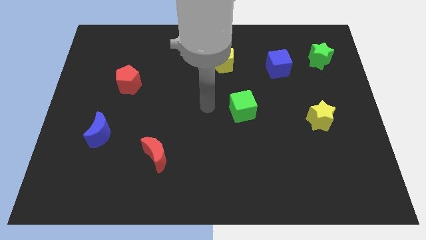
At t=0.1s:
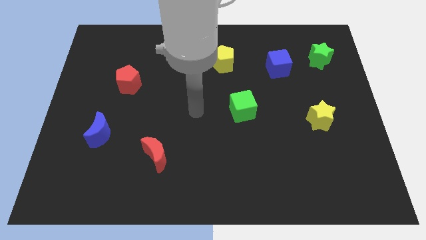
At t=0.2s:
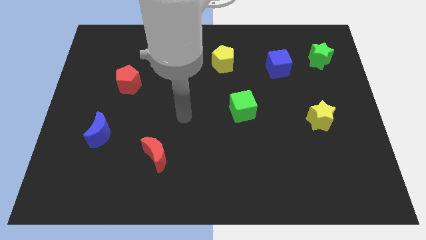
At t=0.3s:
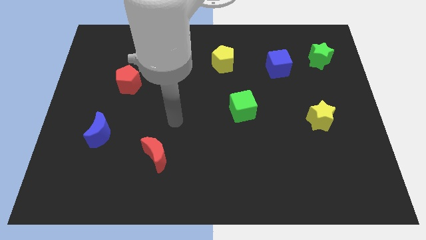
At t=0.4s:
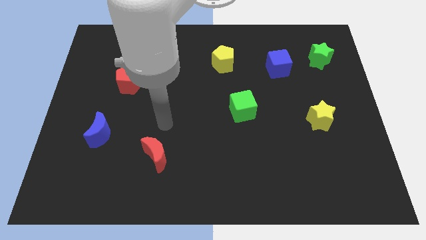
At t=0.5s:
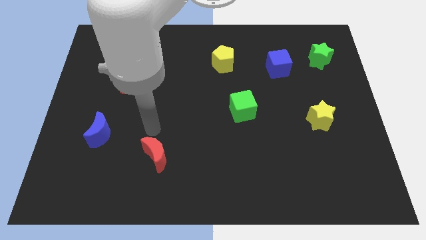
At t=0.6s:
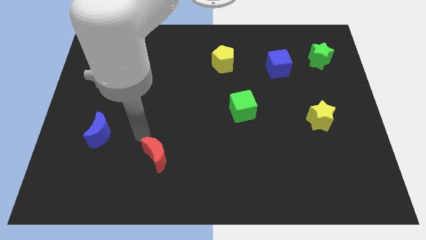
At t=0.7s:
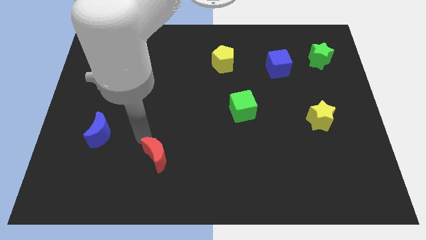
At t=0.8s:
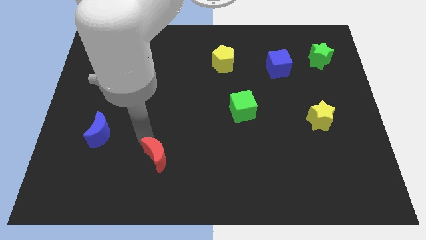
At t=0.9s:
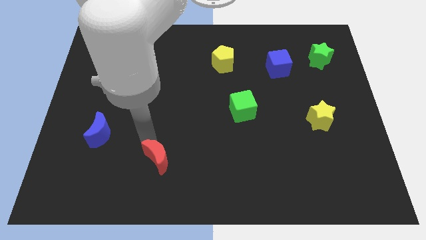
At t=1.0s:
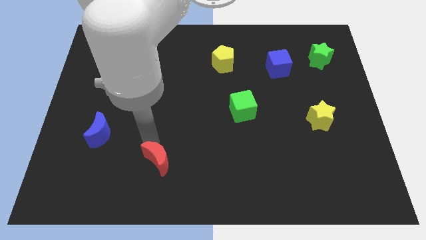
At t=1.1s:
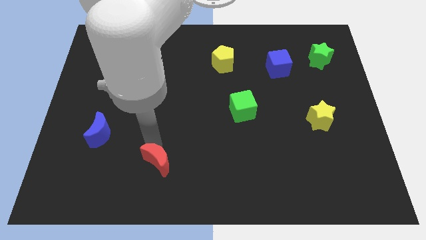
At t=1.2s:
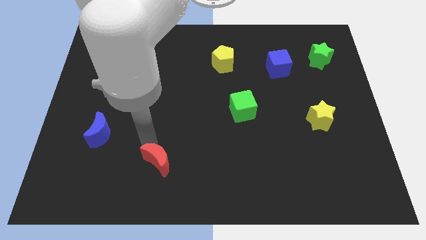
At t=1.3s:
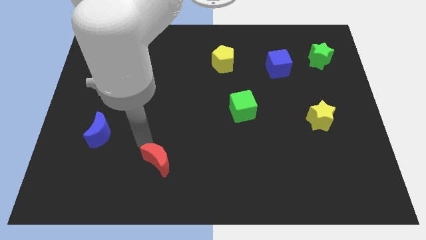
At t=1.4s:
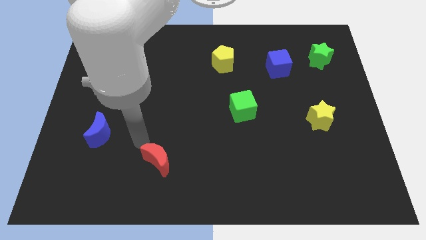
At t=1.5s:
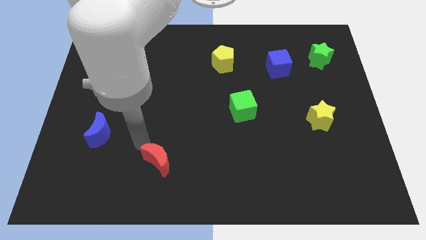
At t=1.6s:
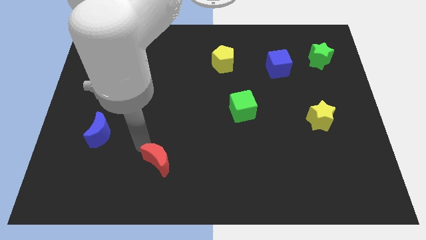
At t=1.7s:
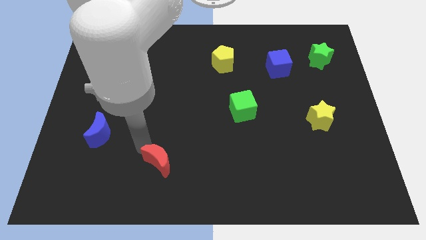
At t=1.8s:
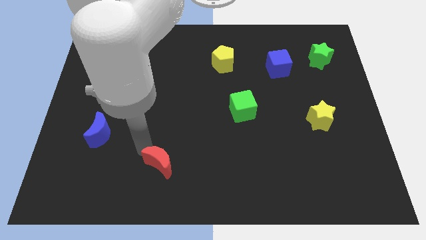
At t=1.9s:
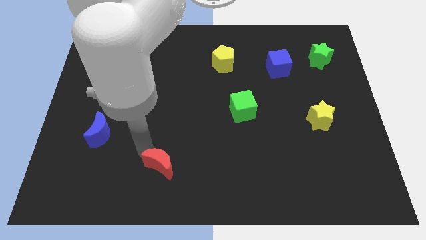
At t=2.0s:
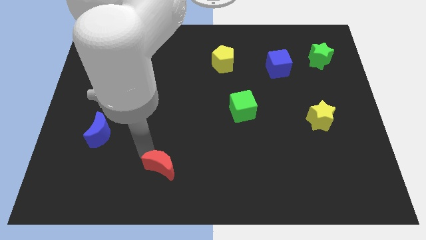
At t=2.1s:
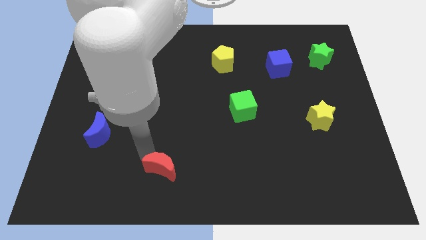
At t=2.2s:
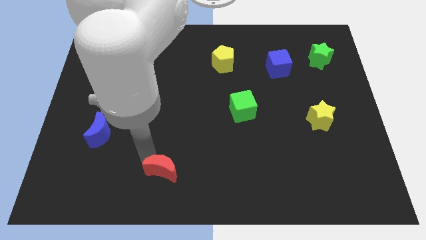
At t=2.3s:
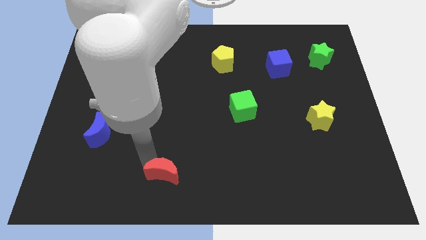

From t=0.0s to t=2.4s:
put the red moon to the bottom

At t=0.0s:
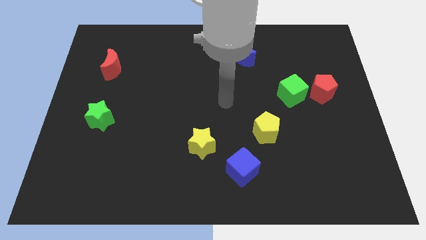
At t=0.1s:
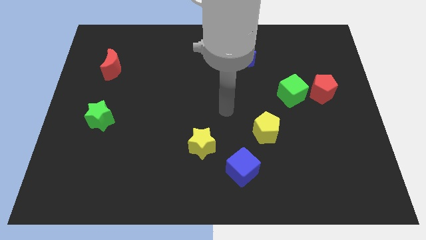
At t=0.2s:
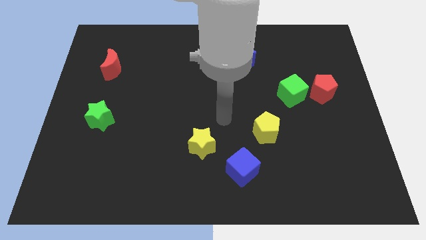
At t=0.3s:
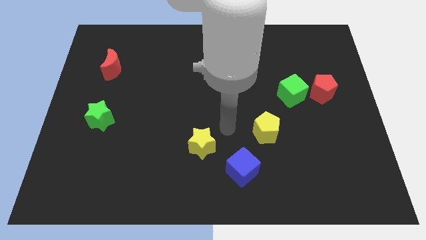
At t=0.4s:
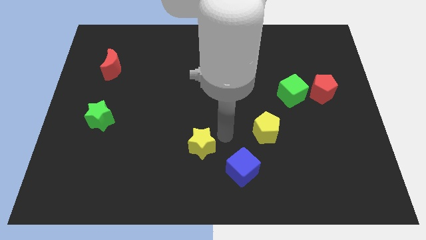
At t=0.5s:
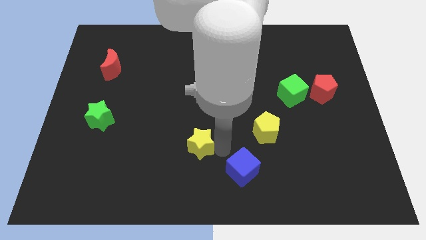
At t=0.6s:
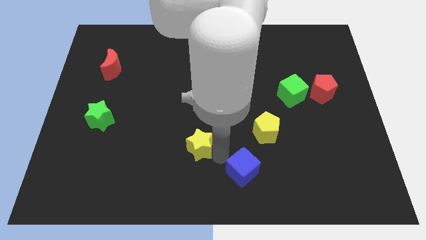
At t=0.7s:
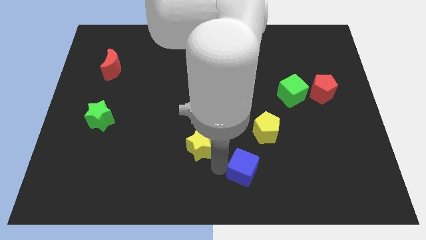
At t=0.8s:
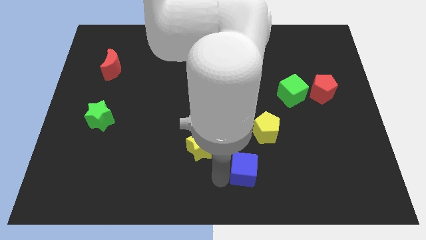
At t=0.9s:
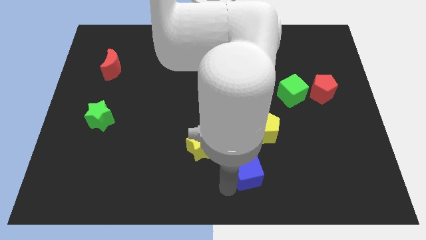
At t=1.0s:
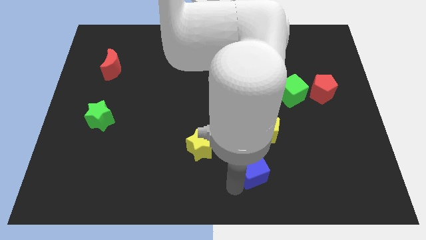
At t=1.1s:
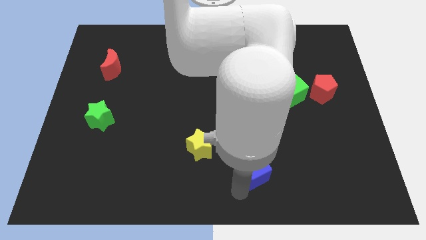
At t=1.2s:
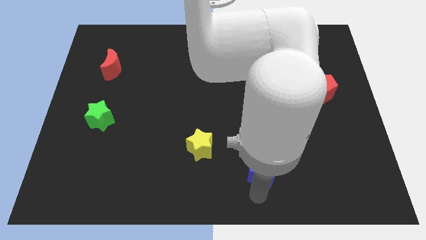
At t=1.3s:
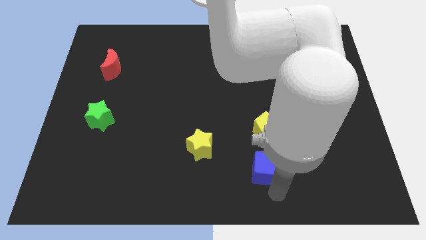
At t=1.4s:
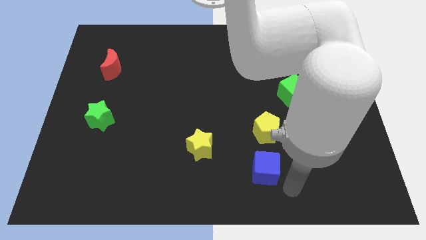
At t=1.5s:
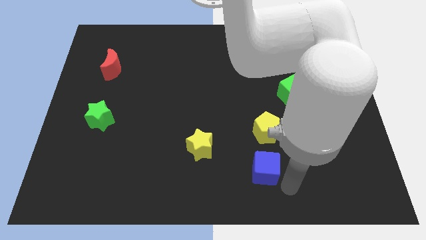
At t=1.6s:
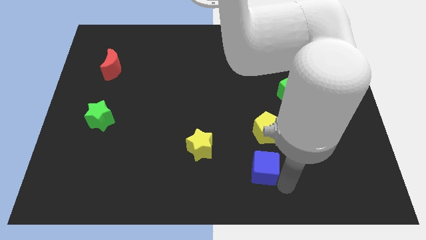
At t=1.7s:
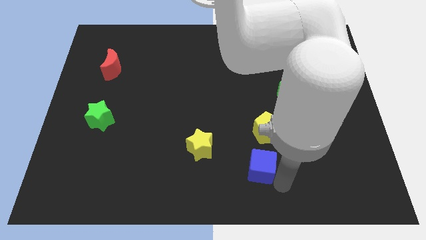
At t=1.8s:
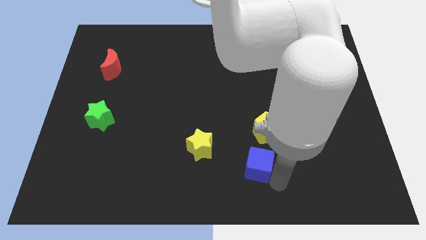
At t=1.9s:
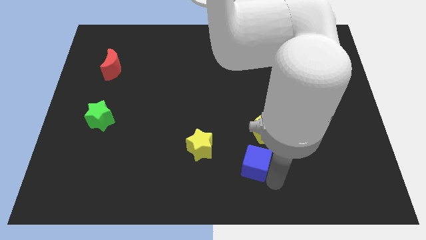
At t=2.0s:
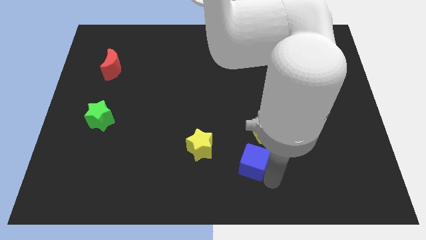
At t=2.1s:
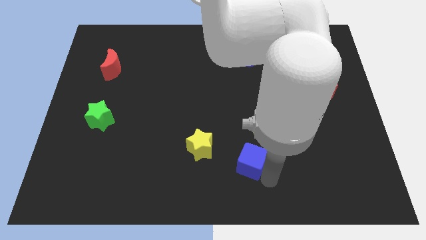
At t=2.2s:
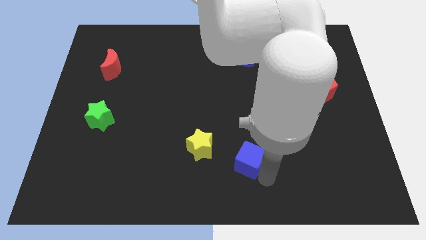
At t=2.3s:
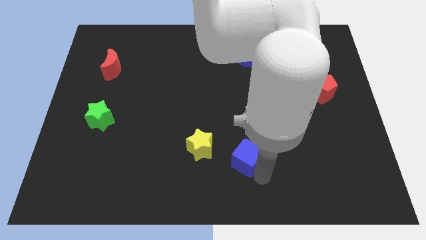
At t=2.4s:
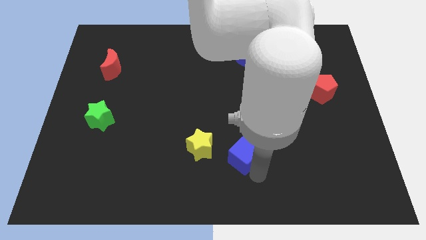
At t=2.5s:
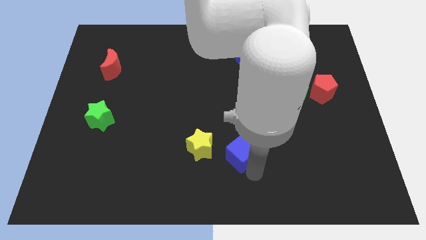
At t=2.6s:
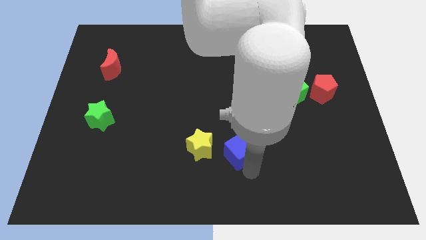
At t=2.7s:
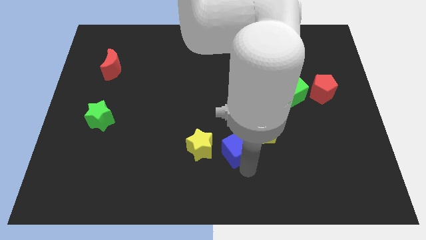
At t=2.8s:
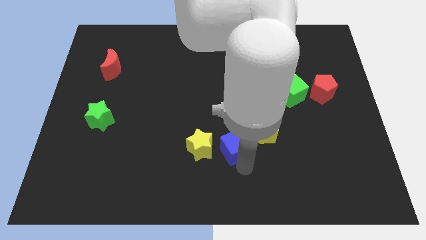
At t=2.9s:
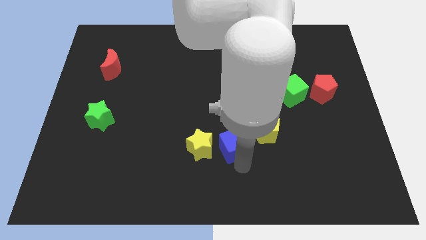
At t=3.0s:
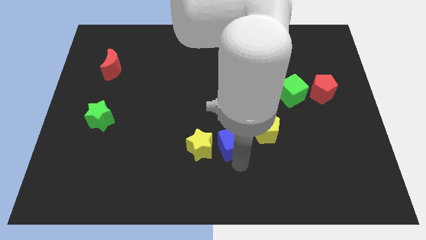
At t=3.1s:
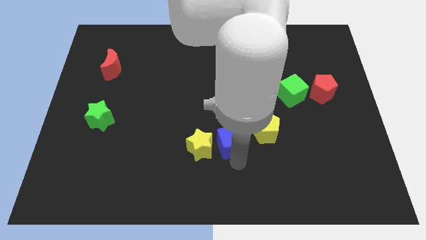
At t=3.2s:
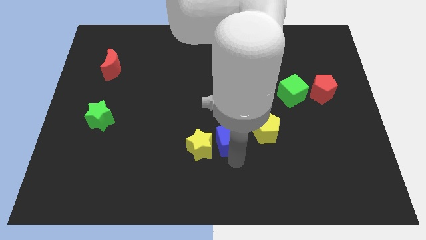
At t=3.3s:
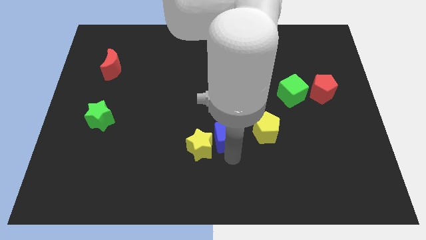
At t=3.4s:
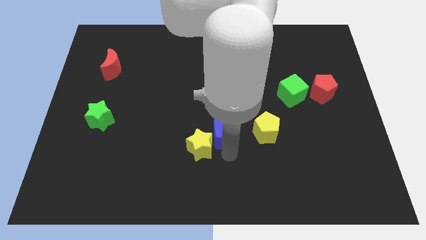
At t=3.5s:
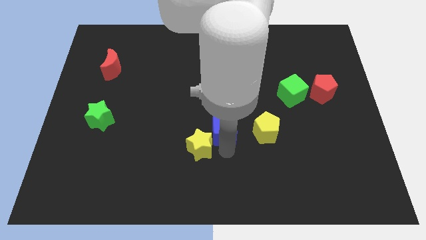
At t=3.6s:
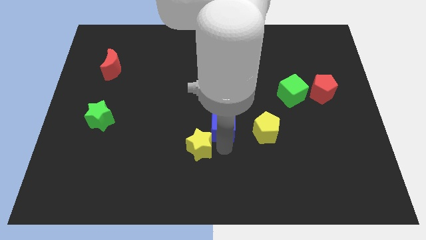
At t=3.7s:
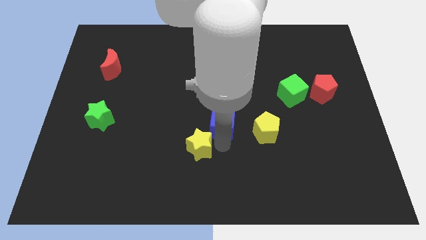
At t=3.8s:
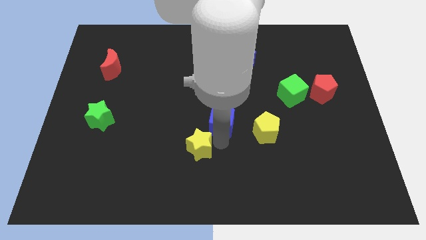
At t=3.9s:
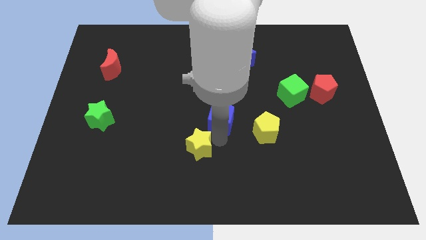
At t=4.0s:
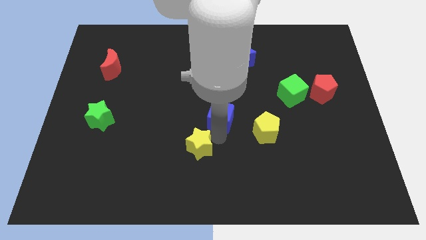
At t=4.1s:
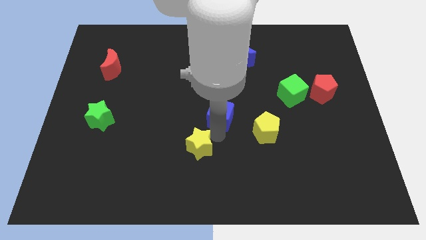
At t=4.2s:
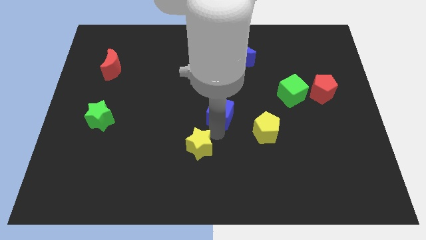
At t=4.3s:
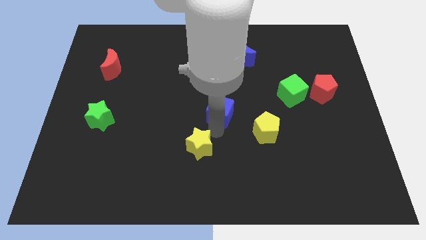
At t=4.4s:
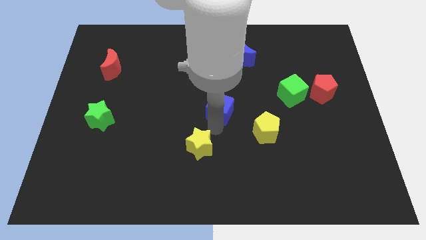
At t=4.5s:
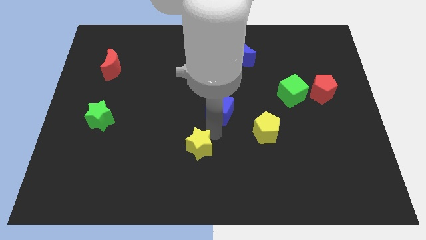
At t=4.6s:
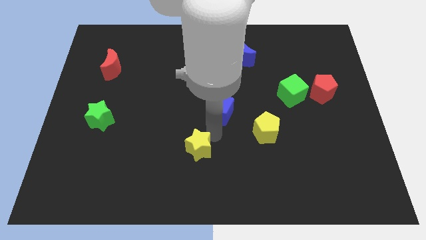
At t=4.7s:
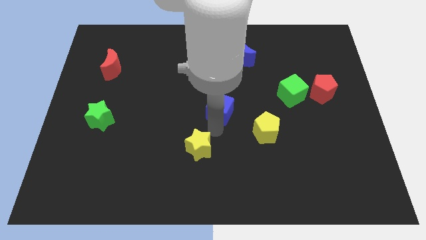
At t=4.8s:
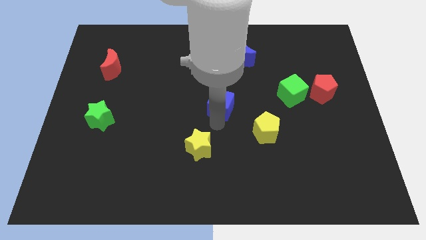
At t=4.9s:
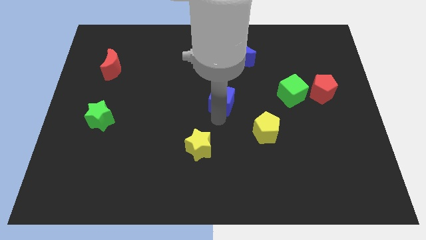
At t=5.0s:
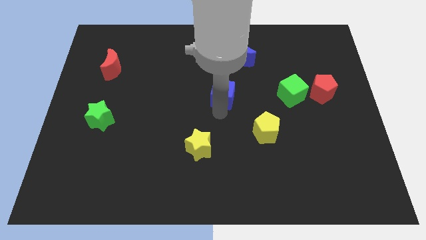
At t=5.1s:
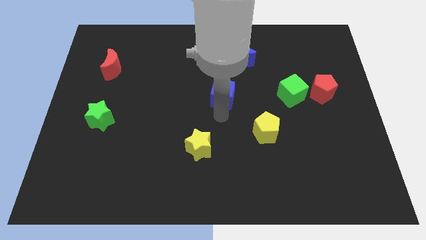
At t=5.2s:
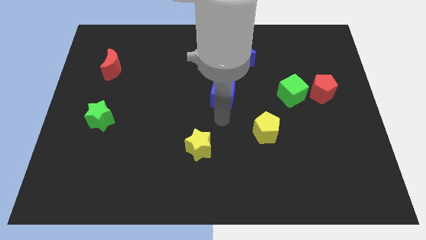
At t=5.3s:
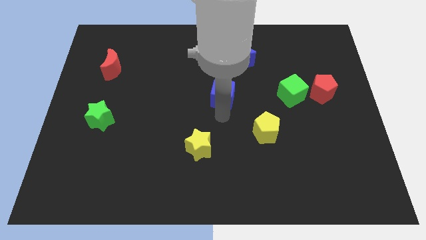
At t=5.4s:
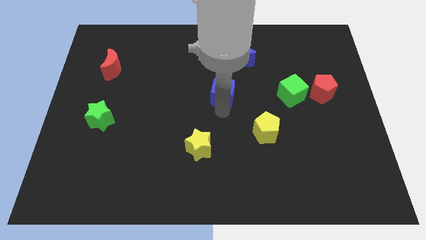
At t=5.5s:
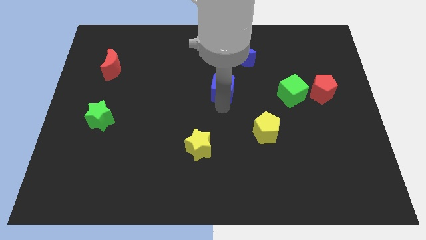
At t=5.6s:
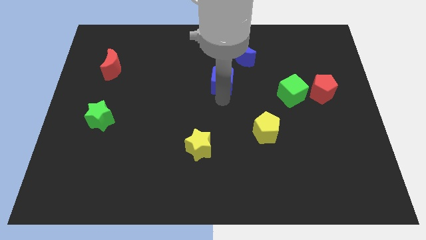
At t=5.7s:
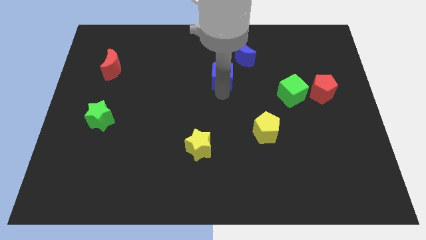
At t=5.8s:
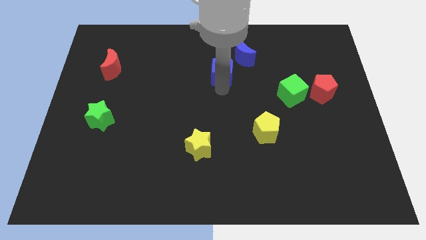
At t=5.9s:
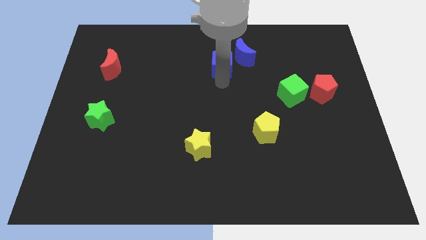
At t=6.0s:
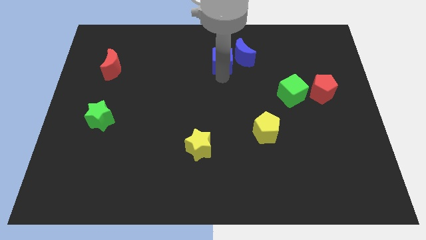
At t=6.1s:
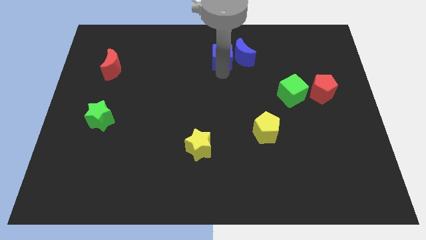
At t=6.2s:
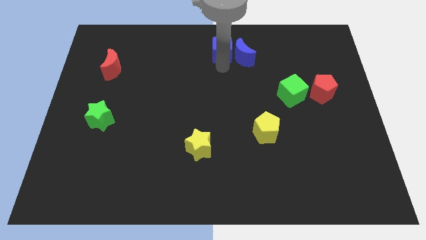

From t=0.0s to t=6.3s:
put the blue cube to the top side
